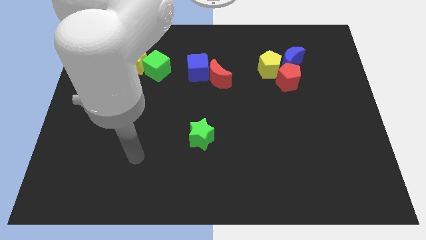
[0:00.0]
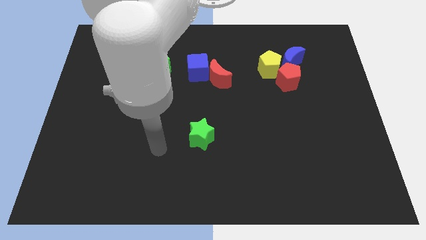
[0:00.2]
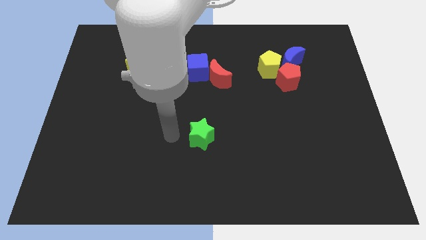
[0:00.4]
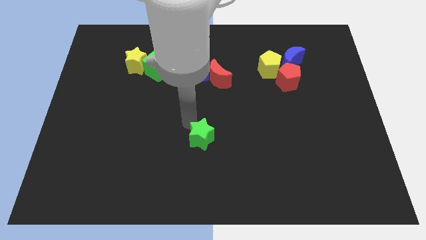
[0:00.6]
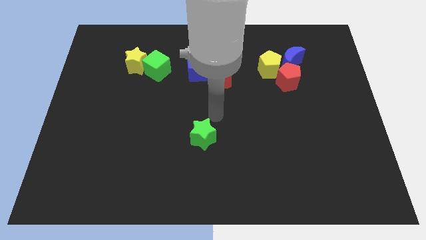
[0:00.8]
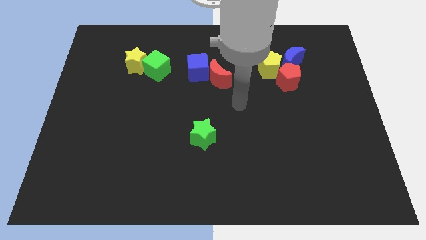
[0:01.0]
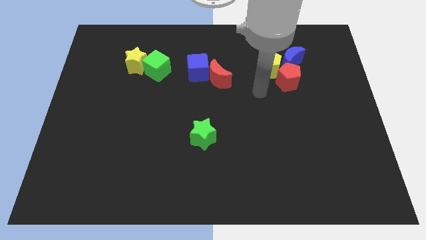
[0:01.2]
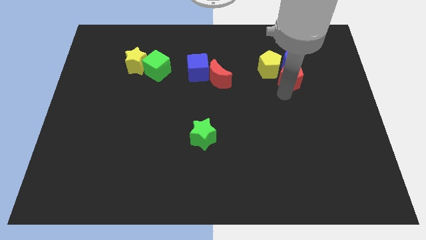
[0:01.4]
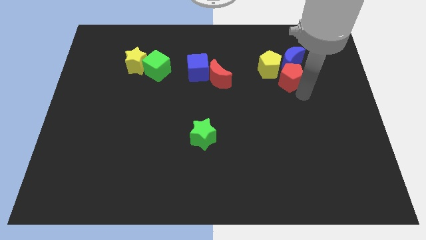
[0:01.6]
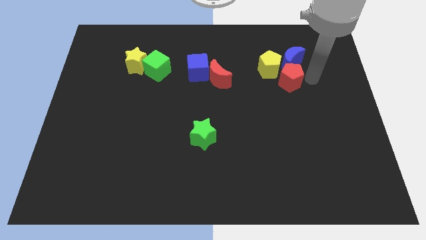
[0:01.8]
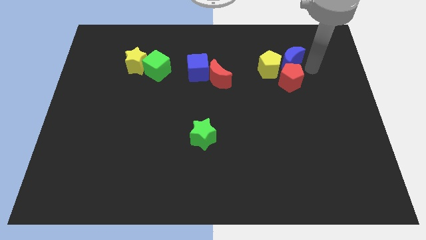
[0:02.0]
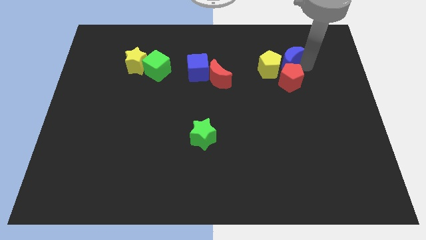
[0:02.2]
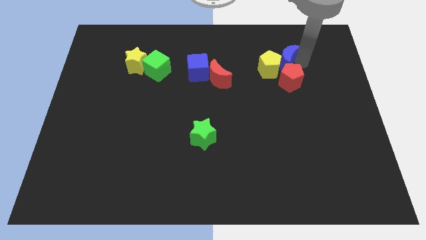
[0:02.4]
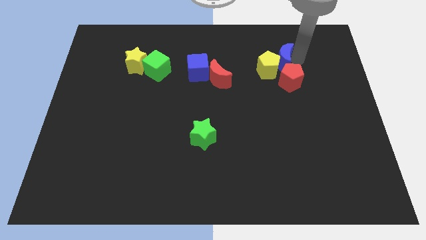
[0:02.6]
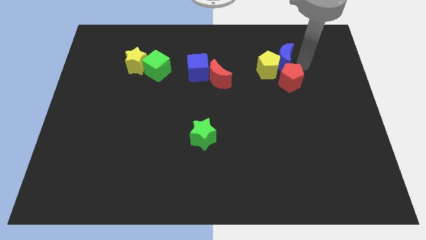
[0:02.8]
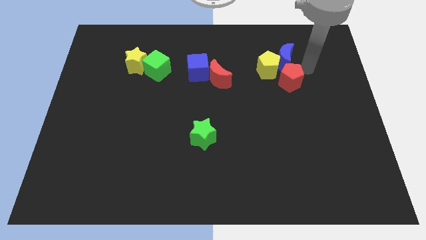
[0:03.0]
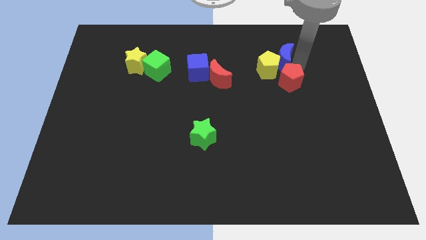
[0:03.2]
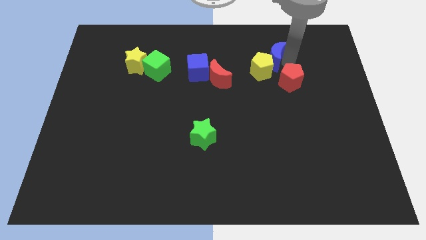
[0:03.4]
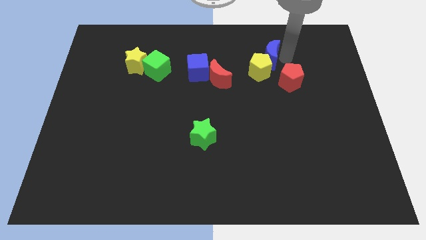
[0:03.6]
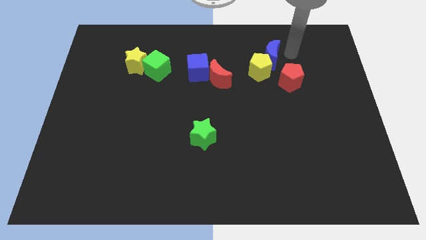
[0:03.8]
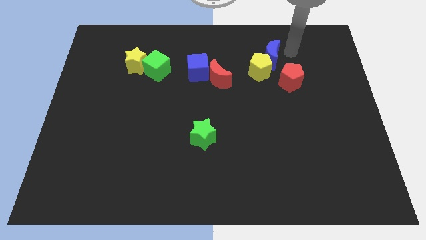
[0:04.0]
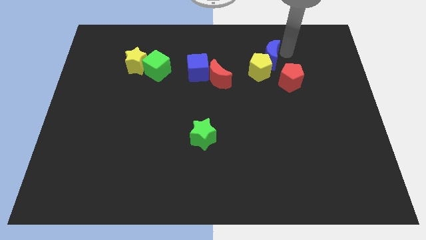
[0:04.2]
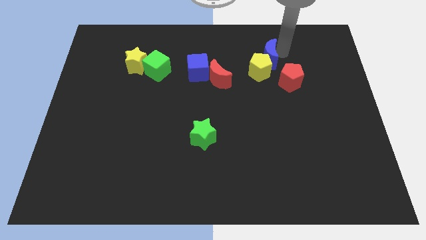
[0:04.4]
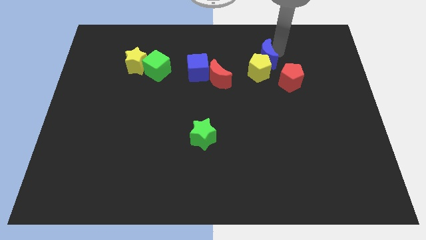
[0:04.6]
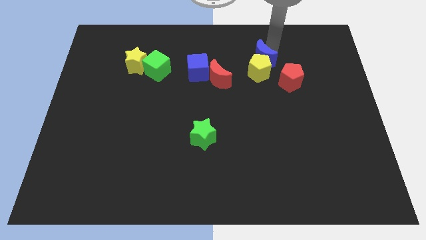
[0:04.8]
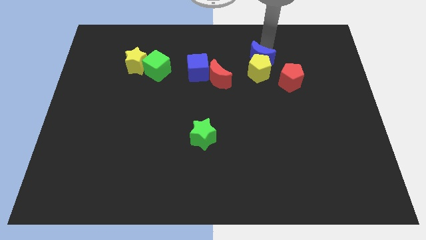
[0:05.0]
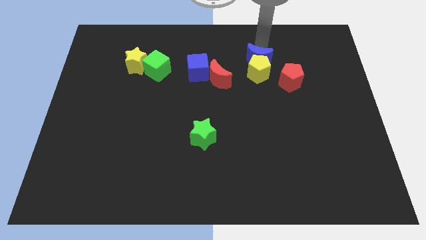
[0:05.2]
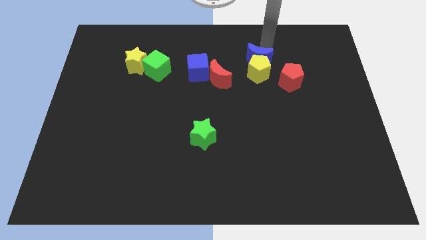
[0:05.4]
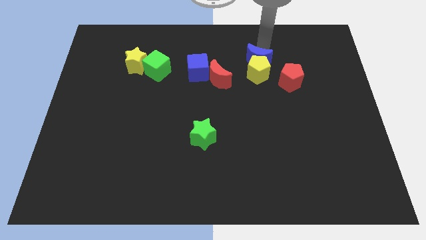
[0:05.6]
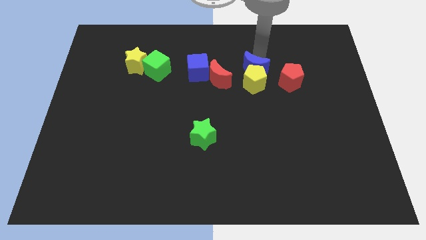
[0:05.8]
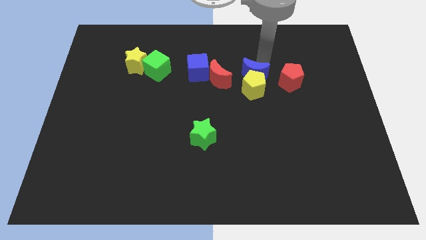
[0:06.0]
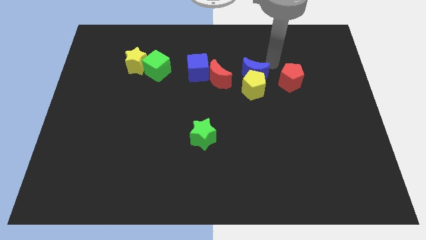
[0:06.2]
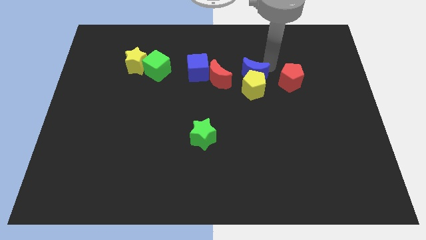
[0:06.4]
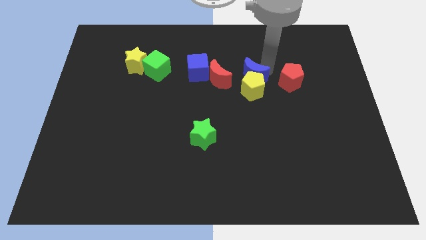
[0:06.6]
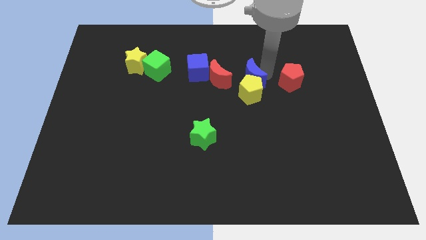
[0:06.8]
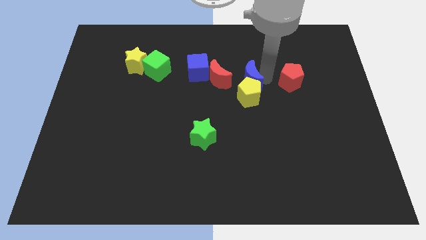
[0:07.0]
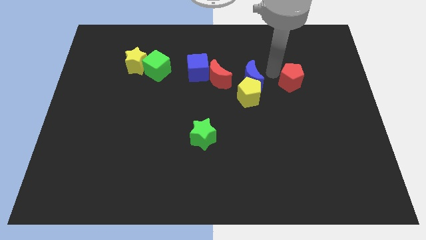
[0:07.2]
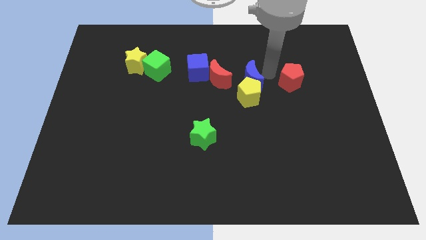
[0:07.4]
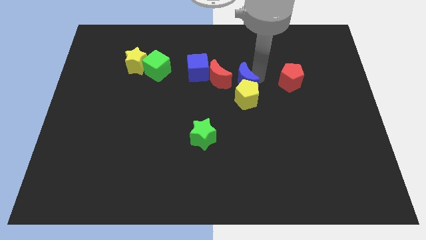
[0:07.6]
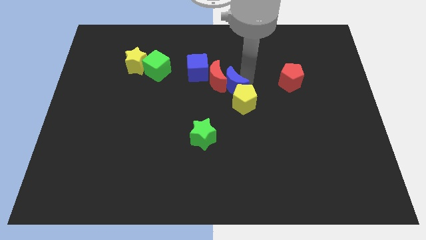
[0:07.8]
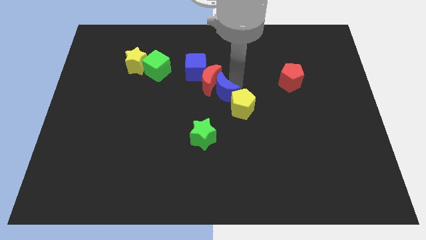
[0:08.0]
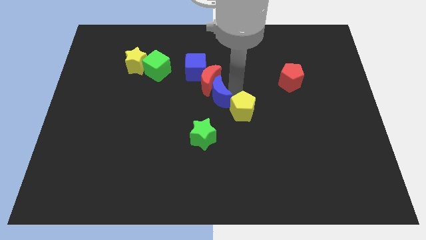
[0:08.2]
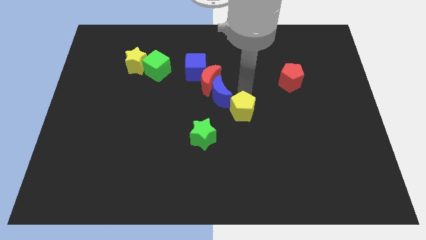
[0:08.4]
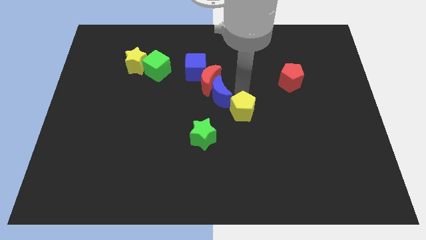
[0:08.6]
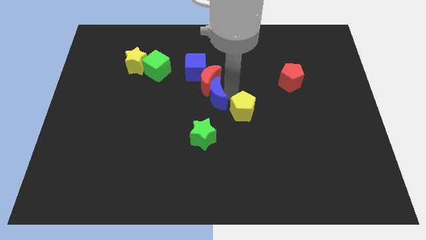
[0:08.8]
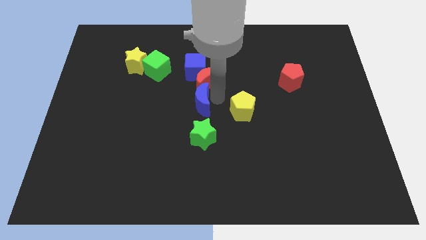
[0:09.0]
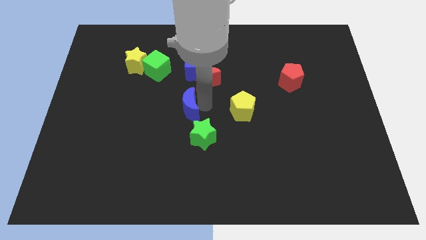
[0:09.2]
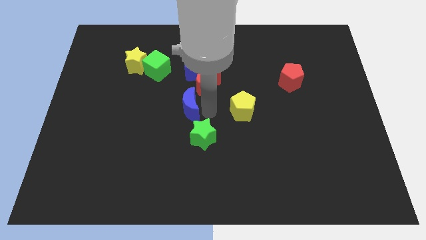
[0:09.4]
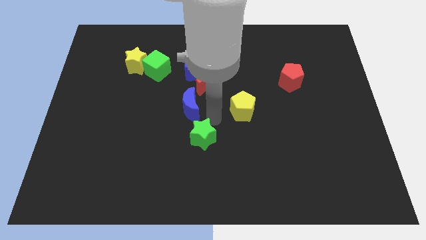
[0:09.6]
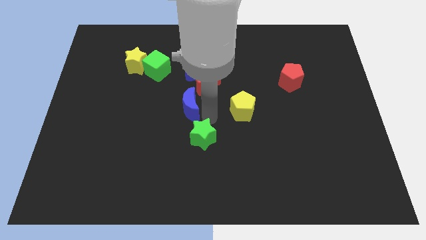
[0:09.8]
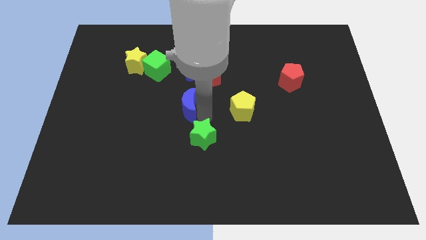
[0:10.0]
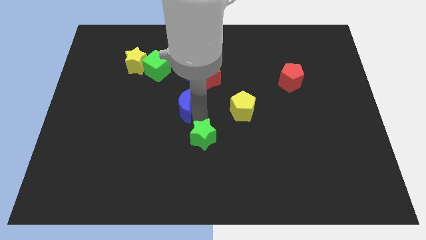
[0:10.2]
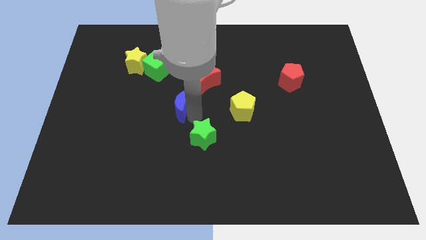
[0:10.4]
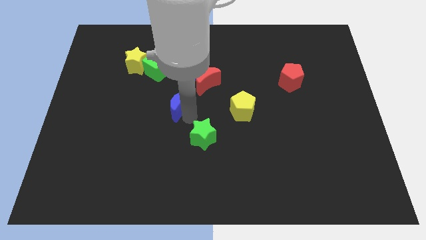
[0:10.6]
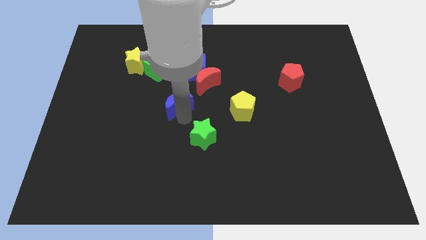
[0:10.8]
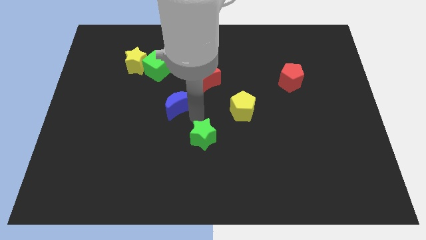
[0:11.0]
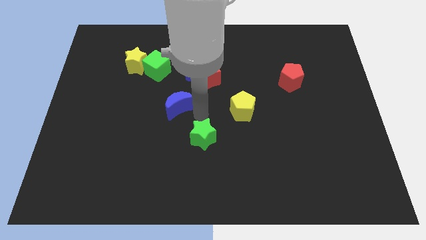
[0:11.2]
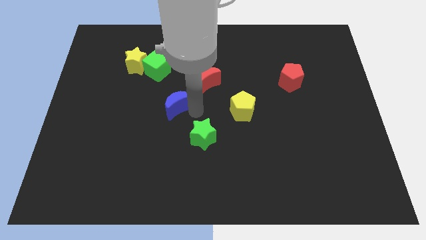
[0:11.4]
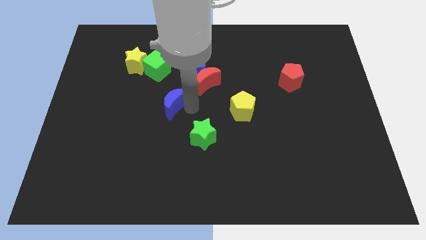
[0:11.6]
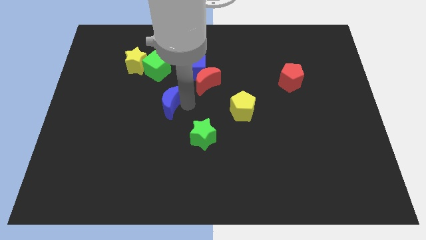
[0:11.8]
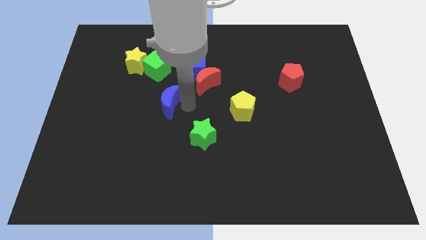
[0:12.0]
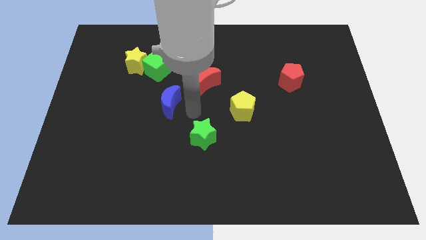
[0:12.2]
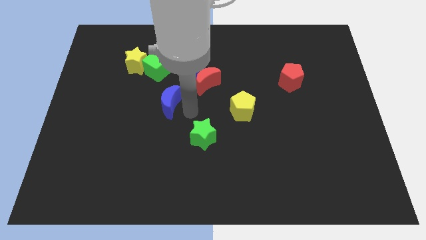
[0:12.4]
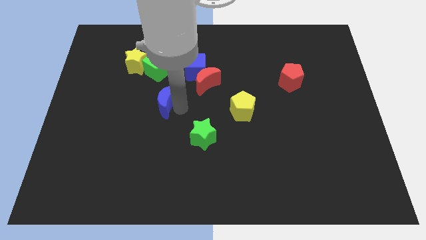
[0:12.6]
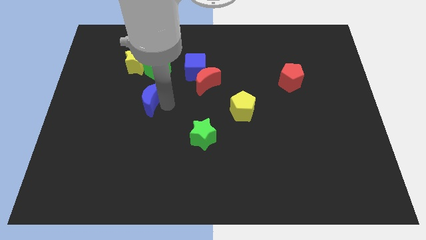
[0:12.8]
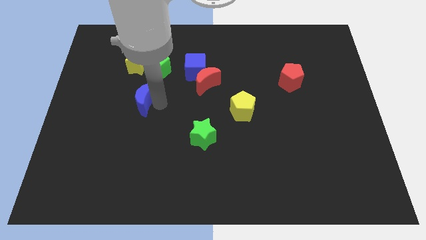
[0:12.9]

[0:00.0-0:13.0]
slide the blue moon to the bottom side of the yellow star

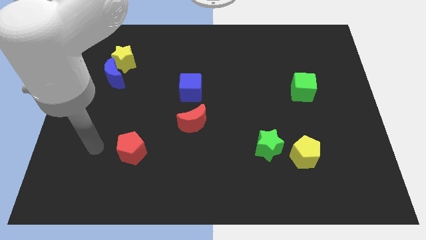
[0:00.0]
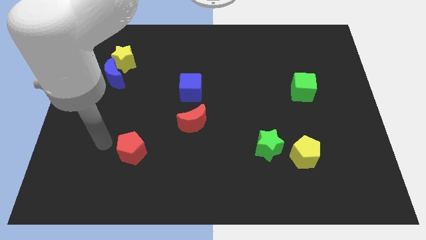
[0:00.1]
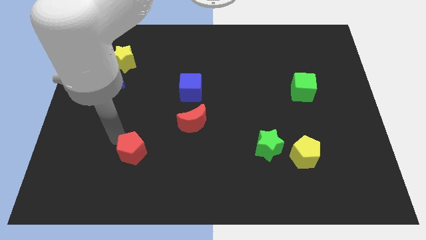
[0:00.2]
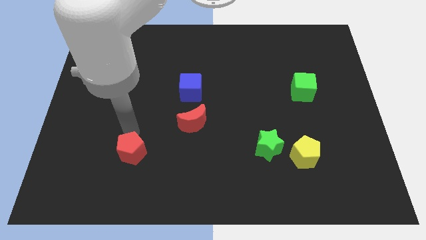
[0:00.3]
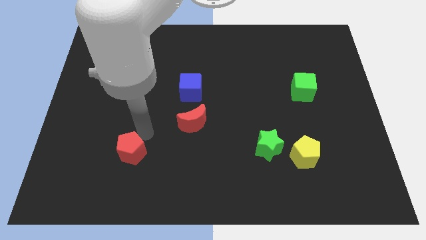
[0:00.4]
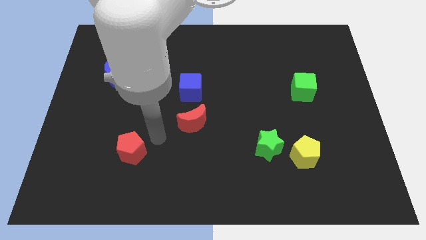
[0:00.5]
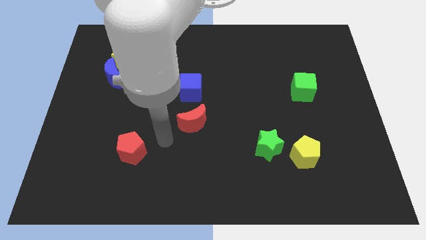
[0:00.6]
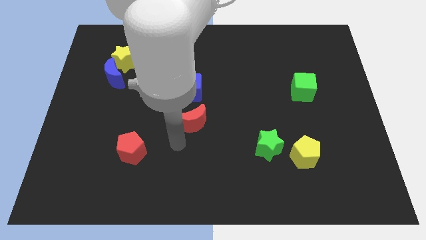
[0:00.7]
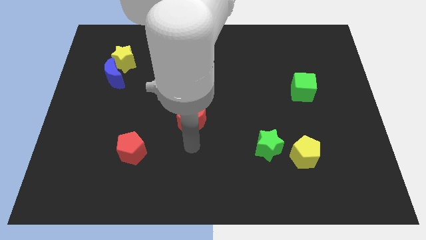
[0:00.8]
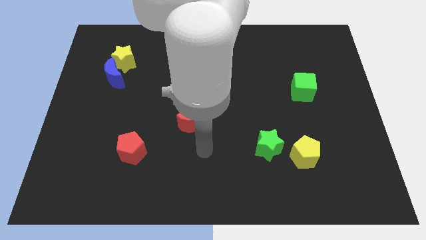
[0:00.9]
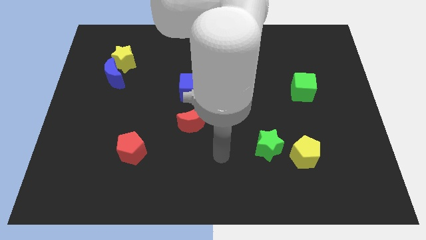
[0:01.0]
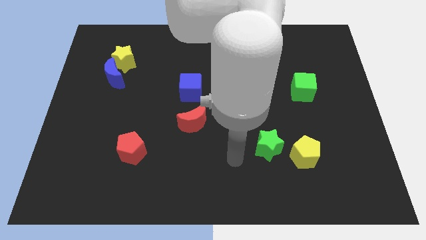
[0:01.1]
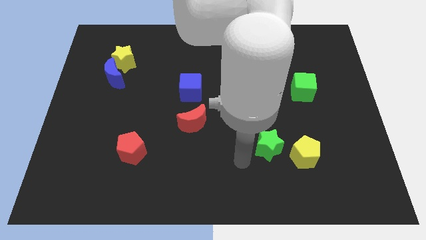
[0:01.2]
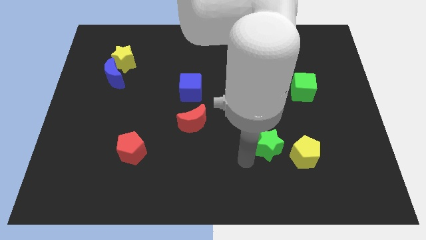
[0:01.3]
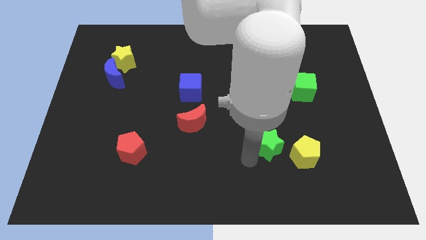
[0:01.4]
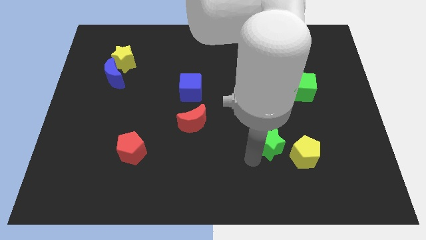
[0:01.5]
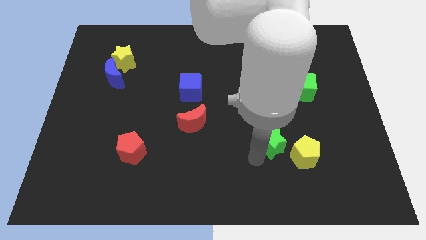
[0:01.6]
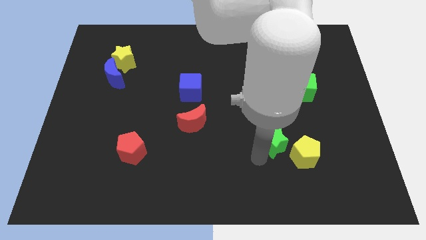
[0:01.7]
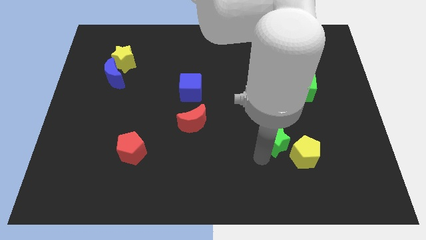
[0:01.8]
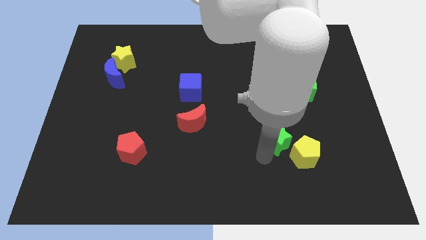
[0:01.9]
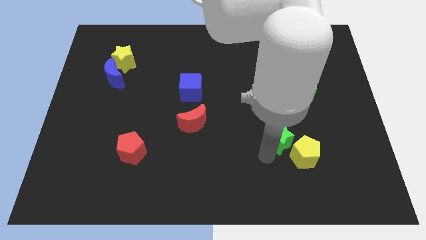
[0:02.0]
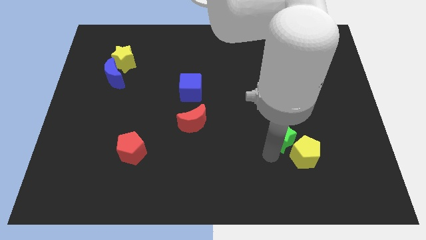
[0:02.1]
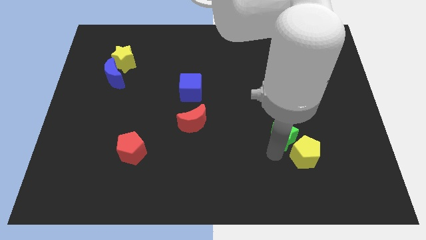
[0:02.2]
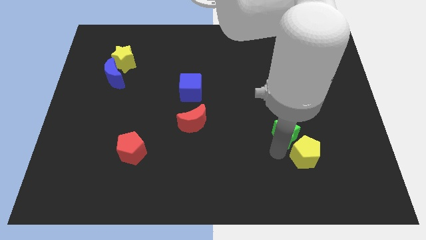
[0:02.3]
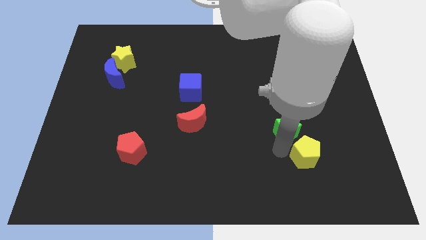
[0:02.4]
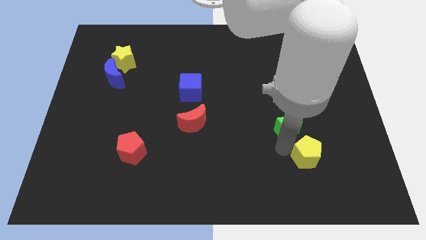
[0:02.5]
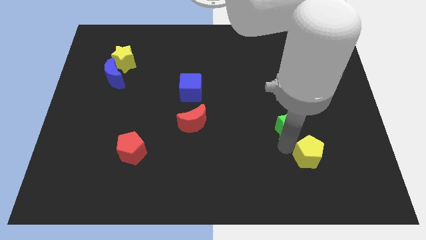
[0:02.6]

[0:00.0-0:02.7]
put the green star to the bottom side of the green cube
